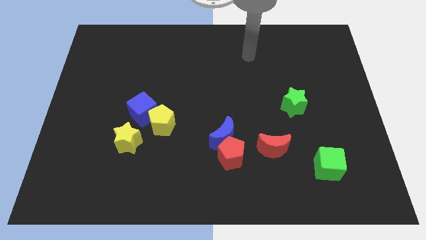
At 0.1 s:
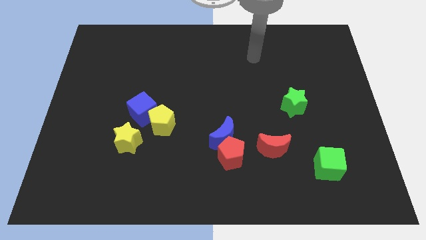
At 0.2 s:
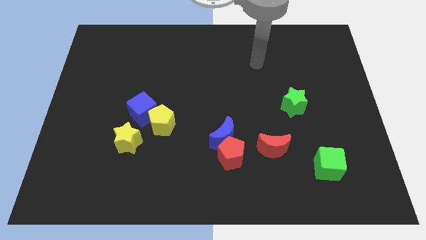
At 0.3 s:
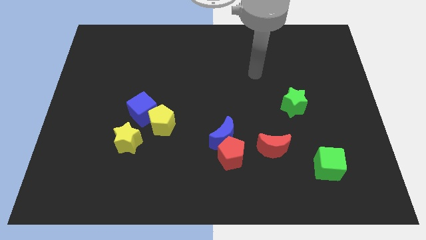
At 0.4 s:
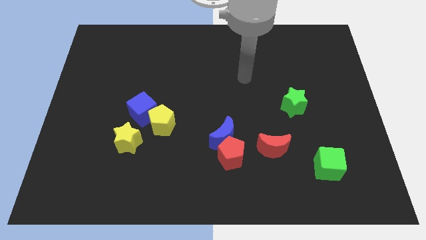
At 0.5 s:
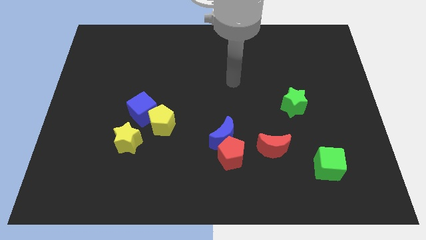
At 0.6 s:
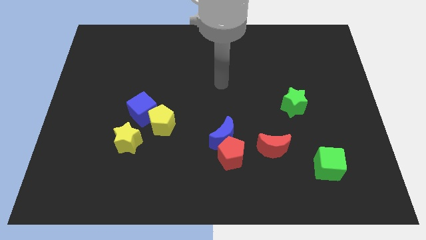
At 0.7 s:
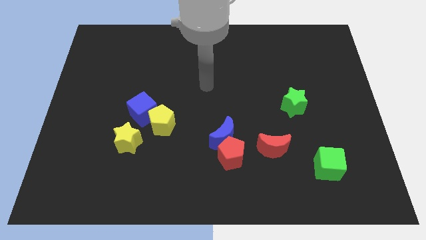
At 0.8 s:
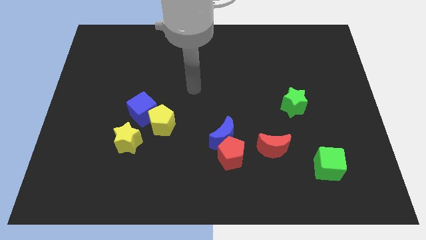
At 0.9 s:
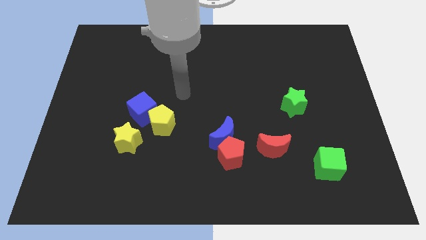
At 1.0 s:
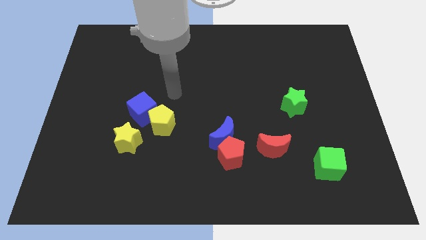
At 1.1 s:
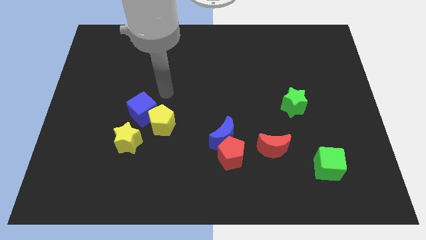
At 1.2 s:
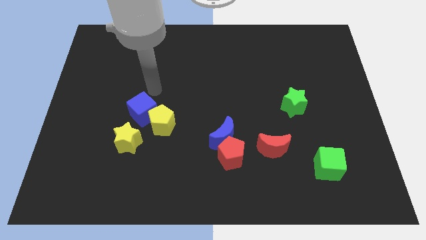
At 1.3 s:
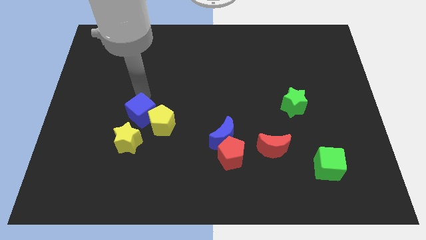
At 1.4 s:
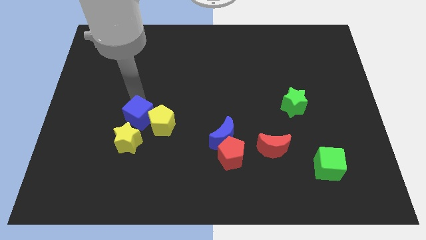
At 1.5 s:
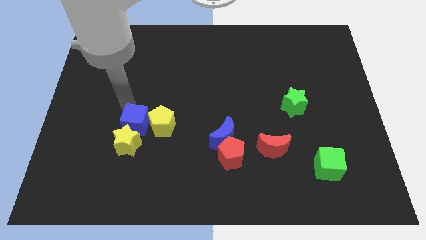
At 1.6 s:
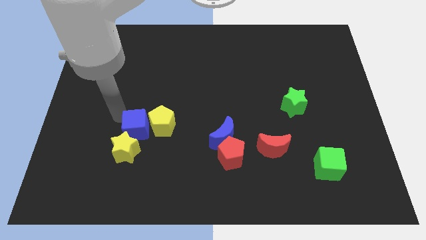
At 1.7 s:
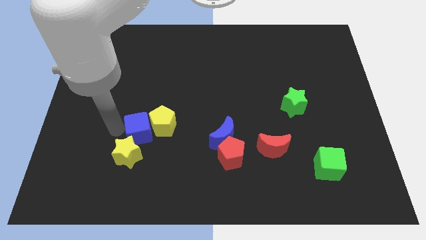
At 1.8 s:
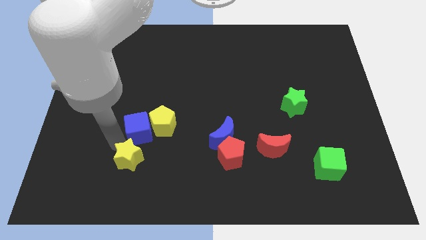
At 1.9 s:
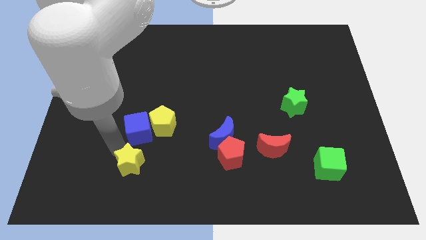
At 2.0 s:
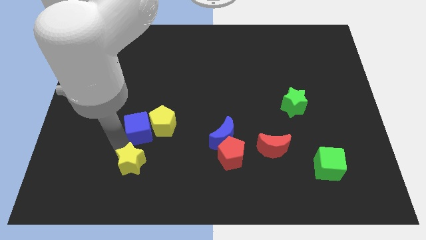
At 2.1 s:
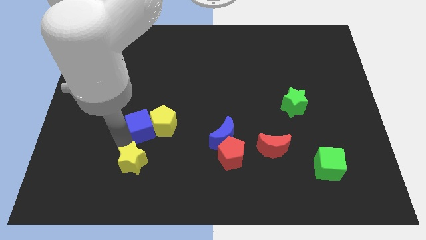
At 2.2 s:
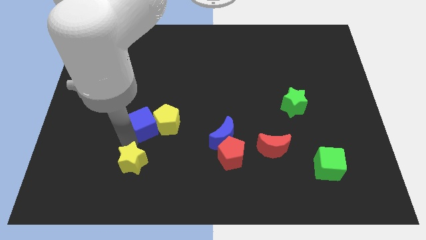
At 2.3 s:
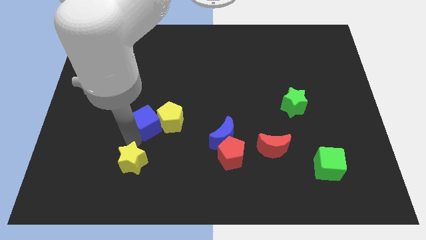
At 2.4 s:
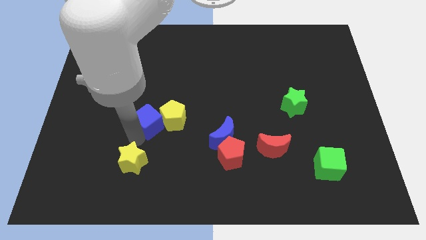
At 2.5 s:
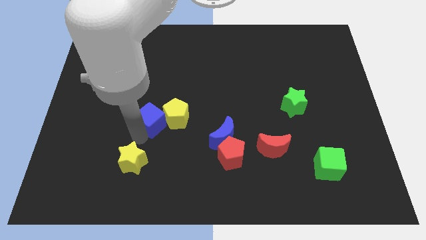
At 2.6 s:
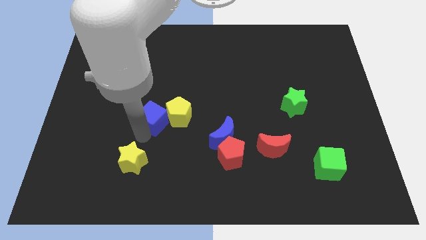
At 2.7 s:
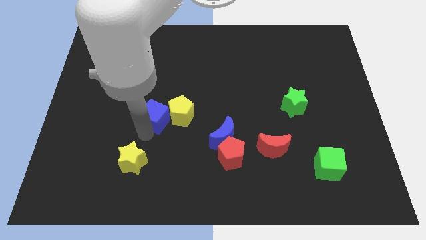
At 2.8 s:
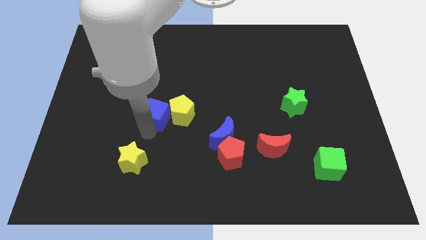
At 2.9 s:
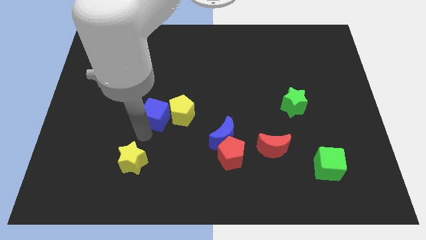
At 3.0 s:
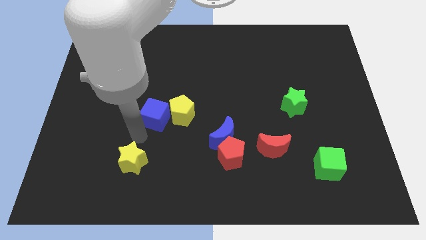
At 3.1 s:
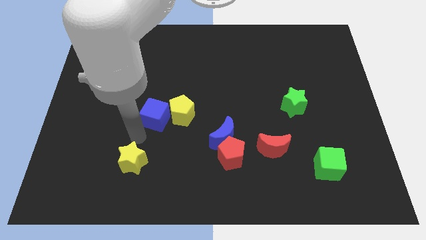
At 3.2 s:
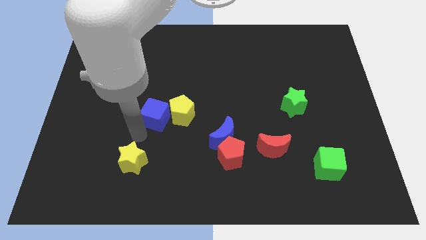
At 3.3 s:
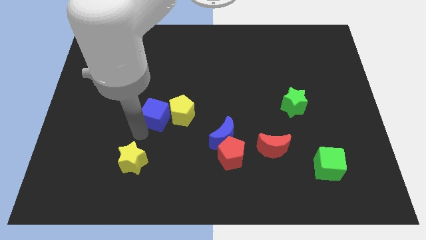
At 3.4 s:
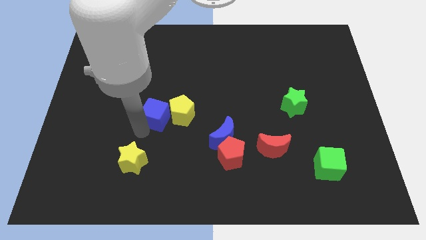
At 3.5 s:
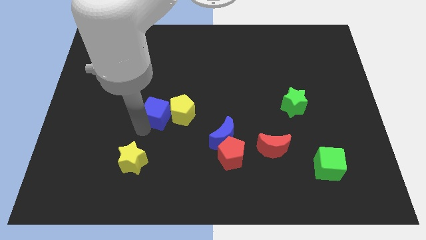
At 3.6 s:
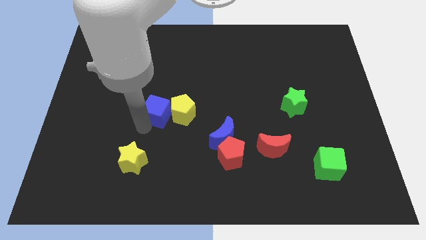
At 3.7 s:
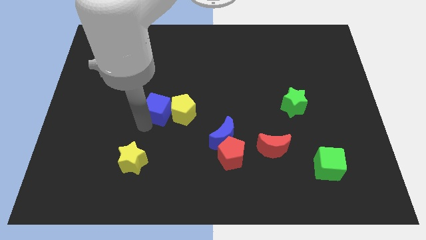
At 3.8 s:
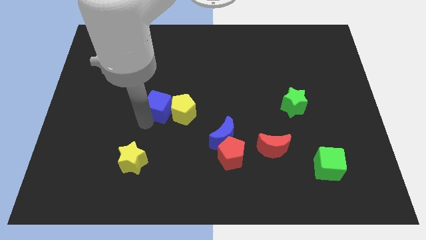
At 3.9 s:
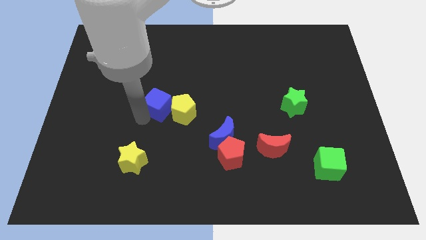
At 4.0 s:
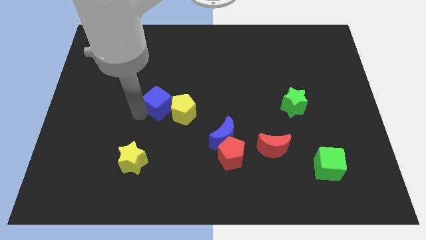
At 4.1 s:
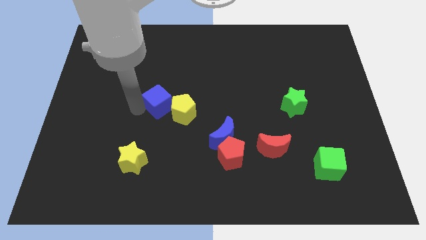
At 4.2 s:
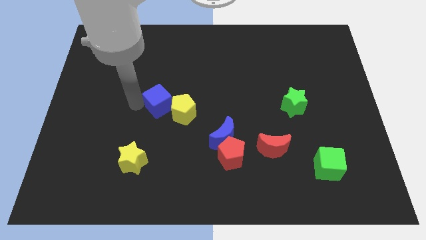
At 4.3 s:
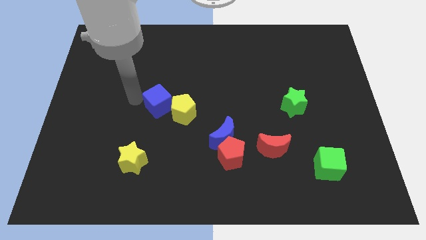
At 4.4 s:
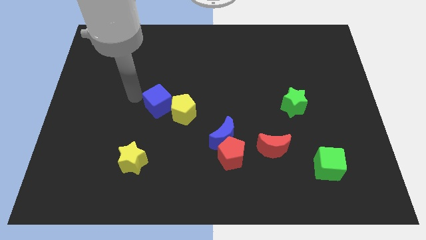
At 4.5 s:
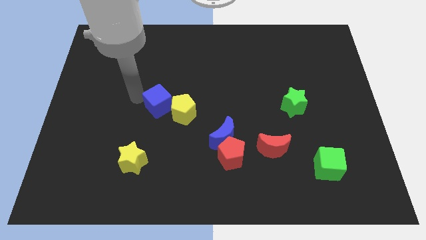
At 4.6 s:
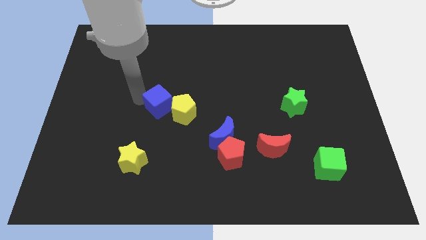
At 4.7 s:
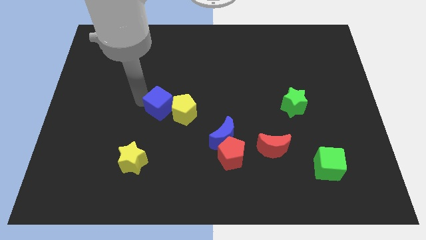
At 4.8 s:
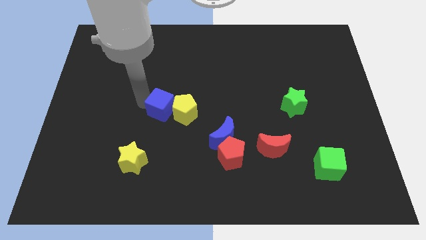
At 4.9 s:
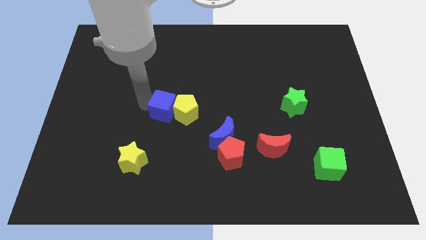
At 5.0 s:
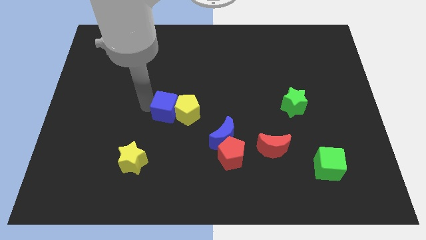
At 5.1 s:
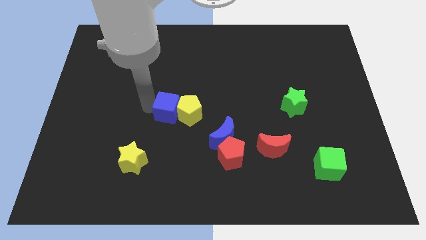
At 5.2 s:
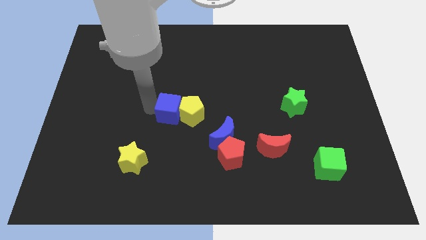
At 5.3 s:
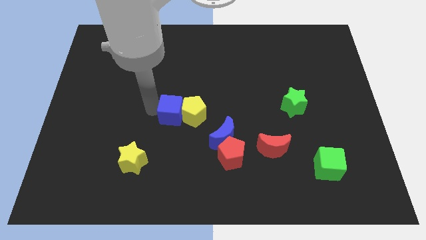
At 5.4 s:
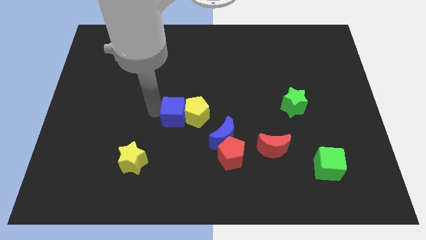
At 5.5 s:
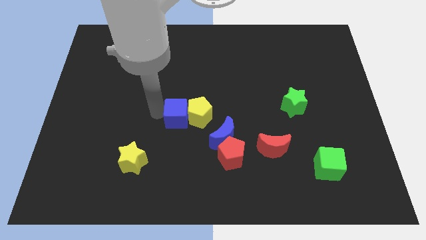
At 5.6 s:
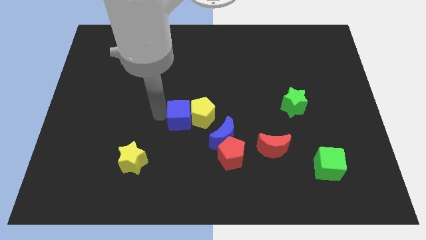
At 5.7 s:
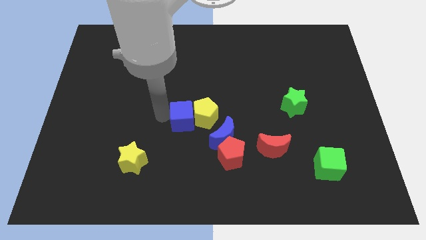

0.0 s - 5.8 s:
slide the blue cube to the left of the blue moon

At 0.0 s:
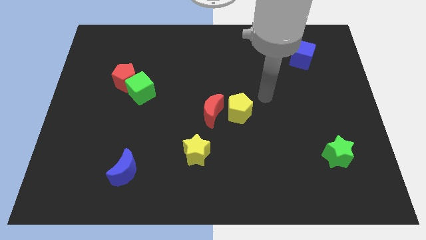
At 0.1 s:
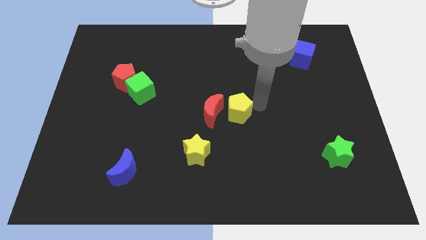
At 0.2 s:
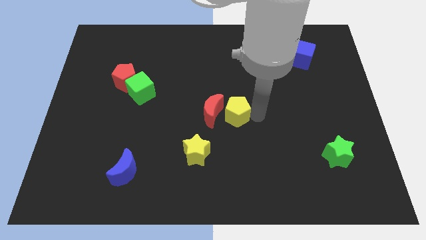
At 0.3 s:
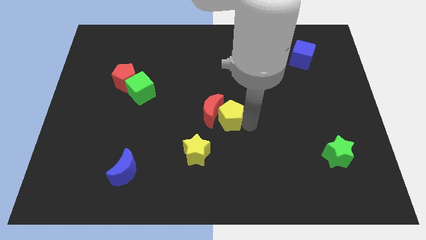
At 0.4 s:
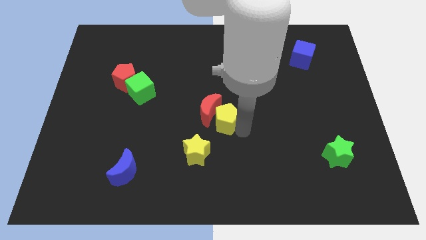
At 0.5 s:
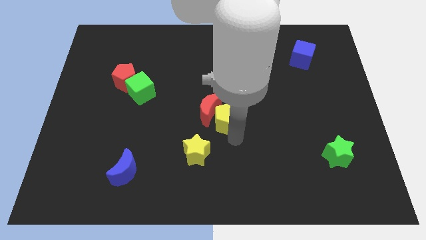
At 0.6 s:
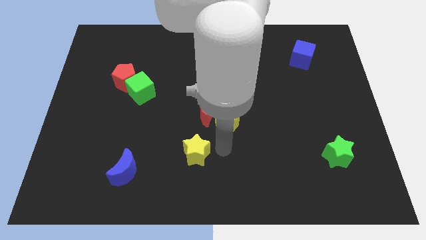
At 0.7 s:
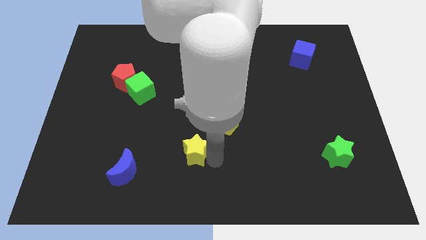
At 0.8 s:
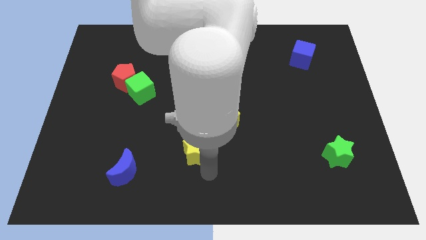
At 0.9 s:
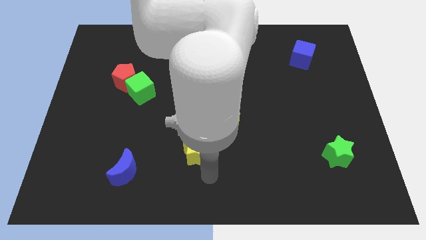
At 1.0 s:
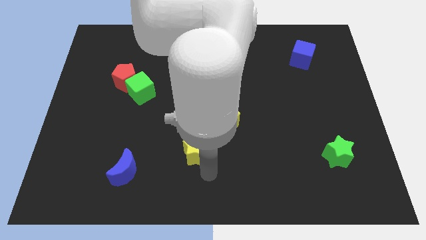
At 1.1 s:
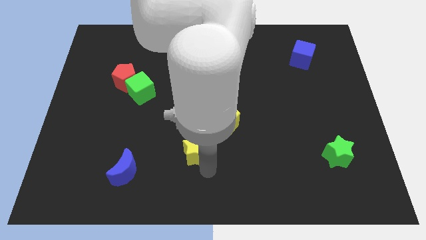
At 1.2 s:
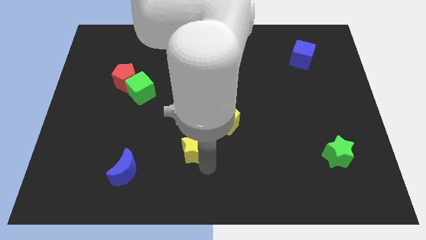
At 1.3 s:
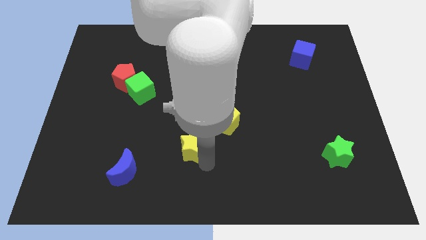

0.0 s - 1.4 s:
put the yellow star diagonally down and to the left of the red moon
